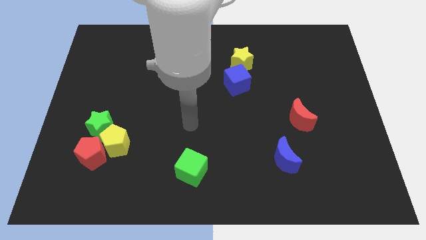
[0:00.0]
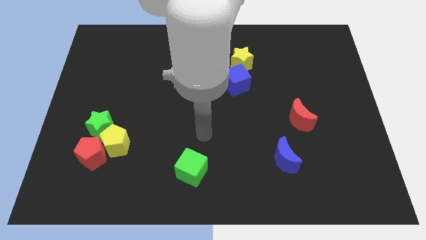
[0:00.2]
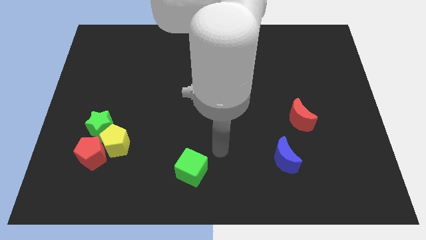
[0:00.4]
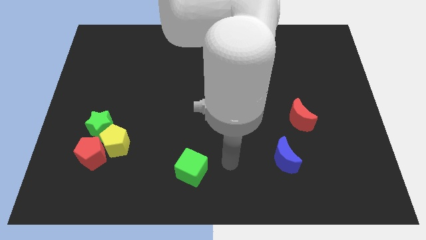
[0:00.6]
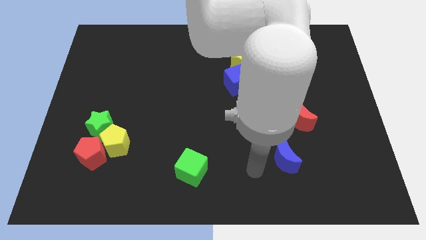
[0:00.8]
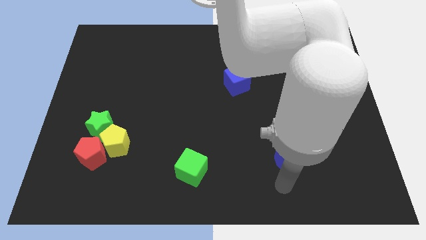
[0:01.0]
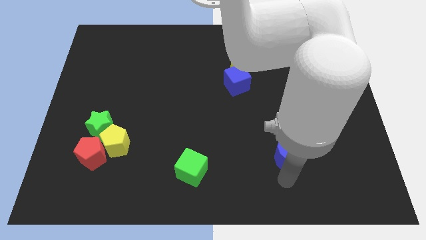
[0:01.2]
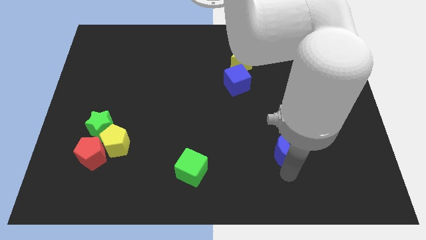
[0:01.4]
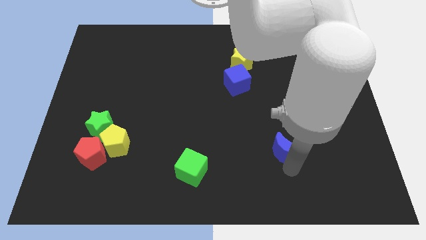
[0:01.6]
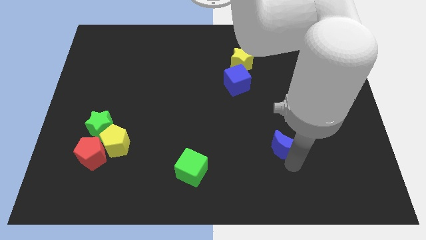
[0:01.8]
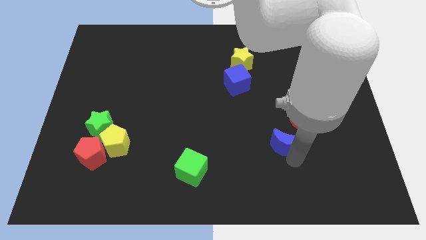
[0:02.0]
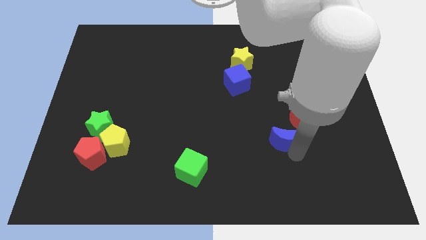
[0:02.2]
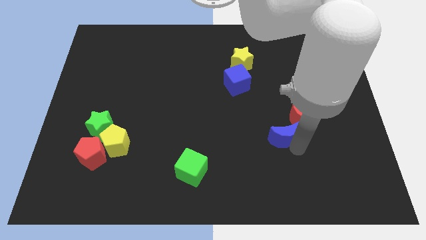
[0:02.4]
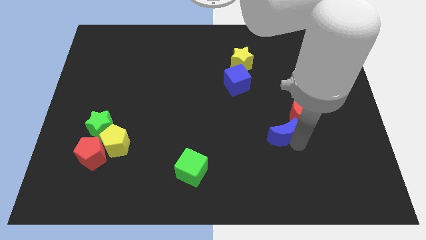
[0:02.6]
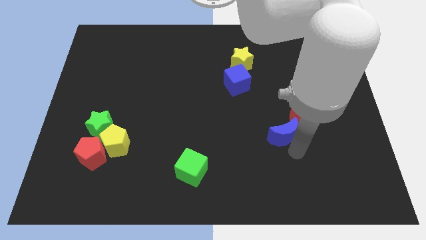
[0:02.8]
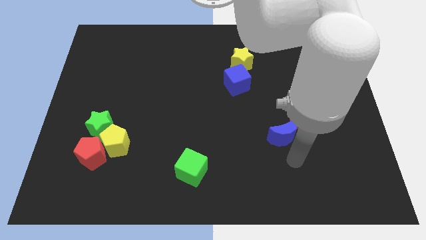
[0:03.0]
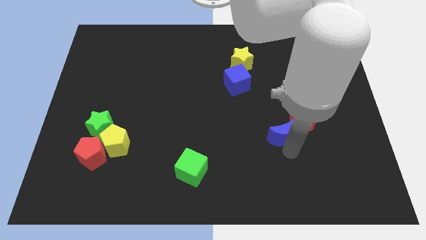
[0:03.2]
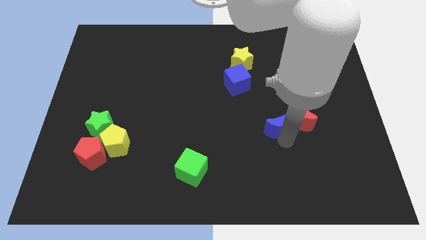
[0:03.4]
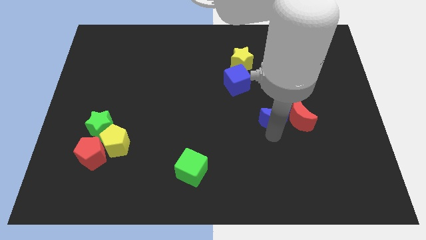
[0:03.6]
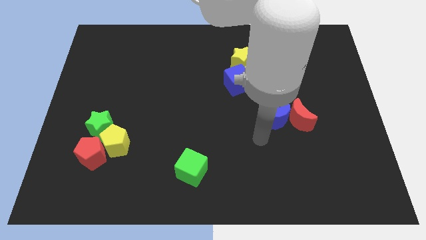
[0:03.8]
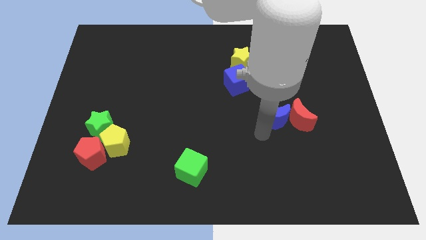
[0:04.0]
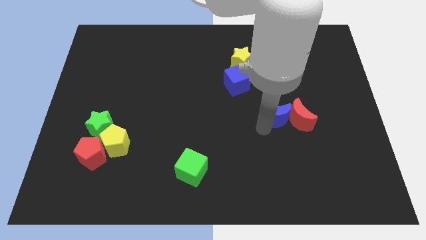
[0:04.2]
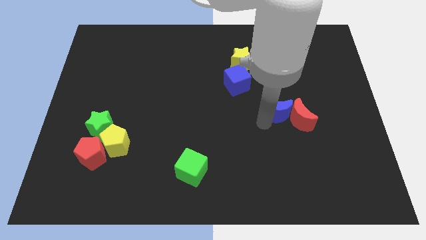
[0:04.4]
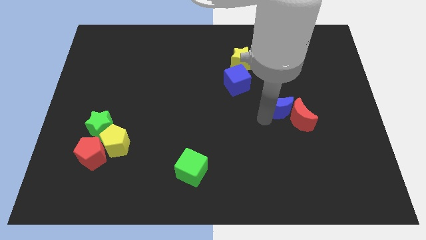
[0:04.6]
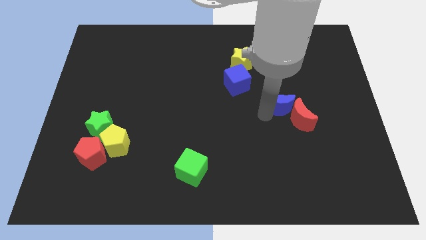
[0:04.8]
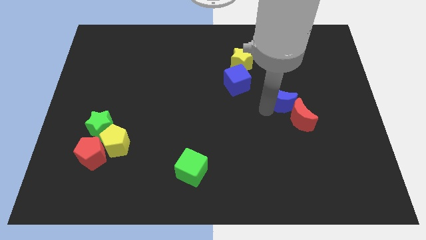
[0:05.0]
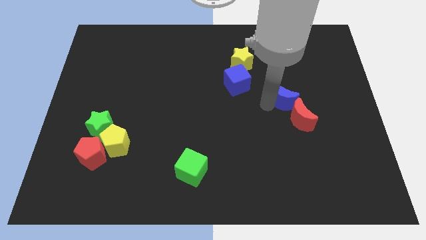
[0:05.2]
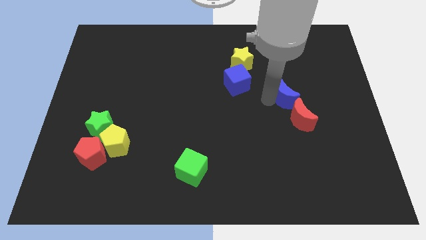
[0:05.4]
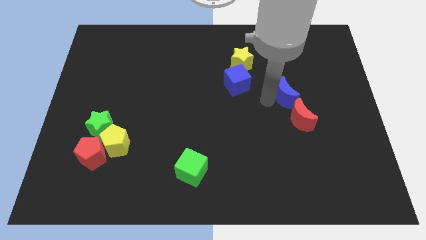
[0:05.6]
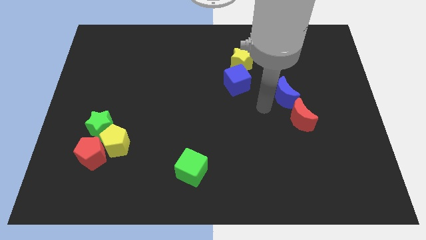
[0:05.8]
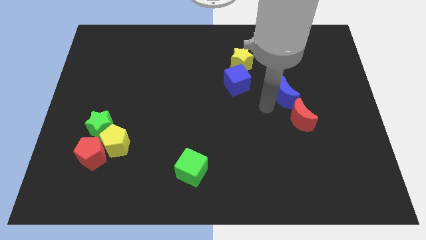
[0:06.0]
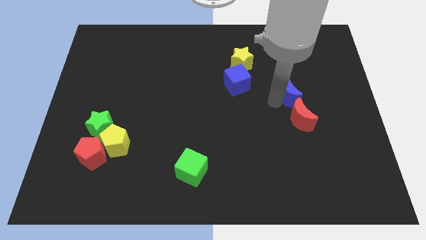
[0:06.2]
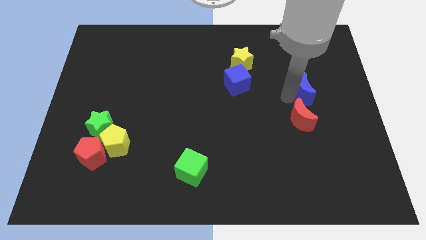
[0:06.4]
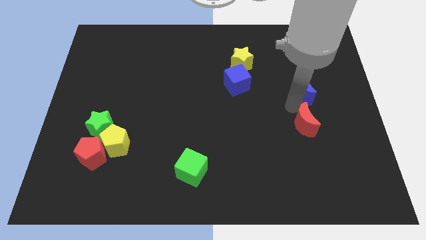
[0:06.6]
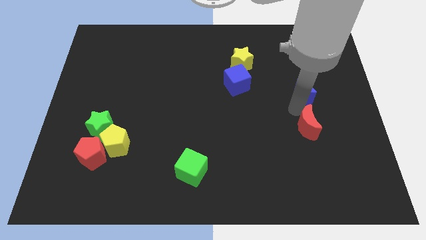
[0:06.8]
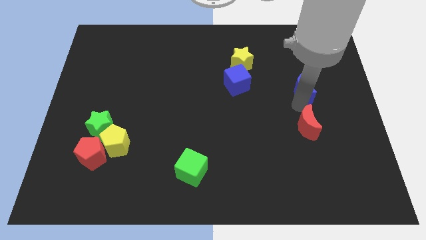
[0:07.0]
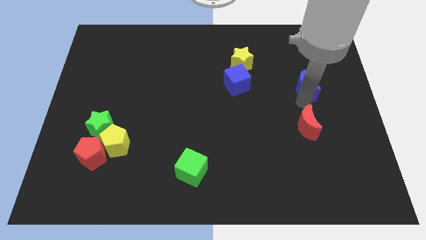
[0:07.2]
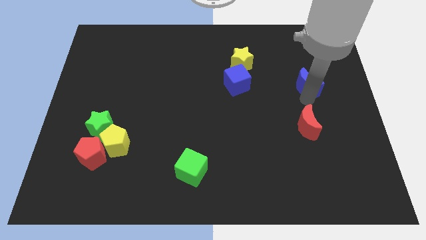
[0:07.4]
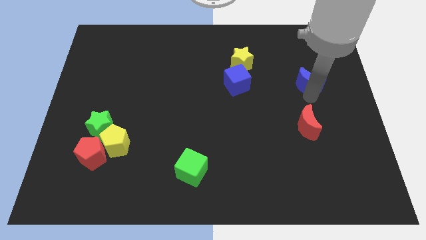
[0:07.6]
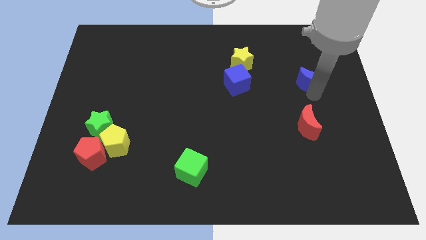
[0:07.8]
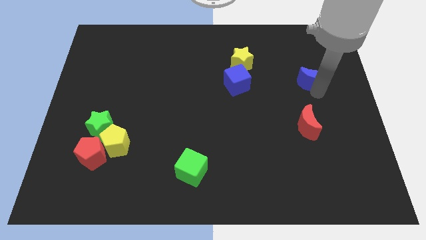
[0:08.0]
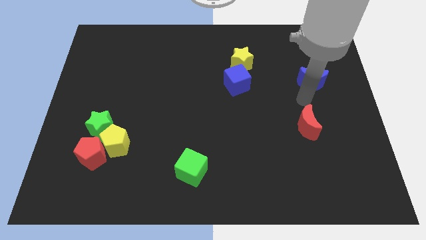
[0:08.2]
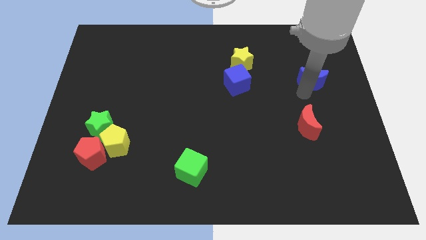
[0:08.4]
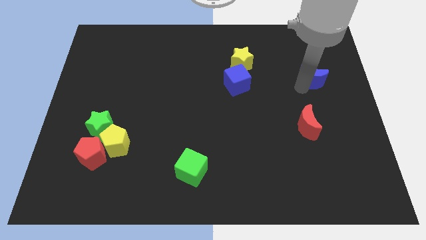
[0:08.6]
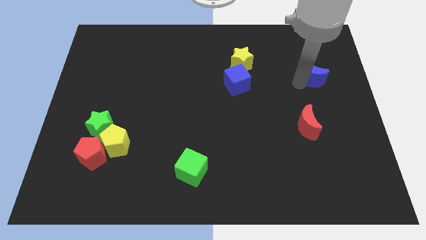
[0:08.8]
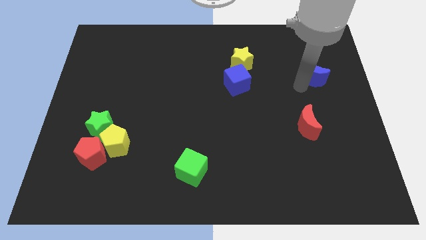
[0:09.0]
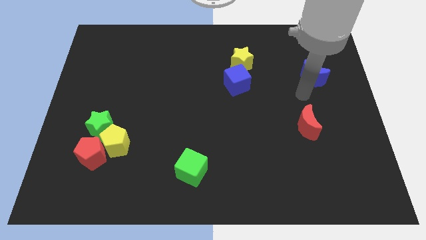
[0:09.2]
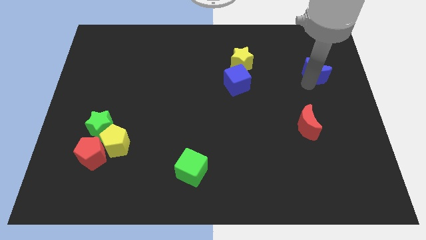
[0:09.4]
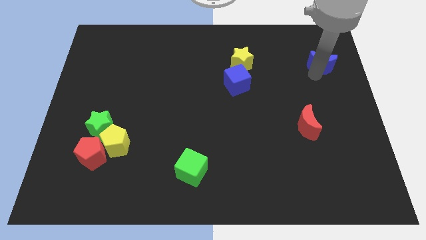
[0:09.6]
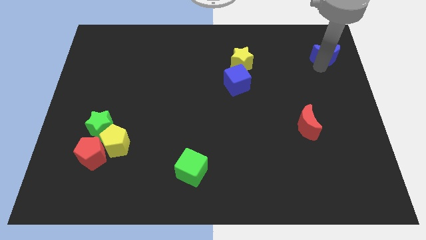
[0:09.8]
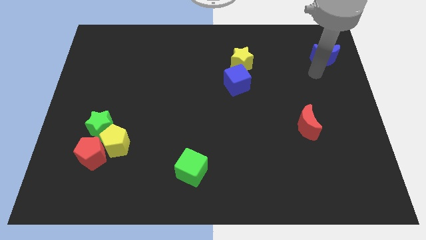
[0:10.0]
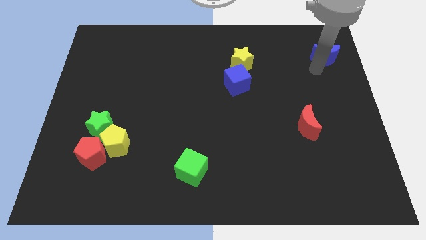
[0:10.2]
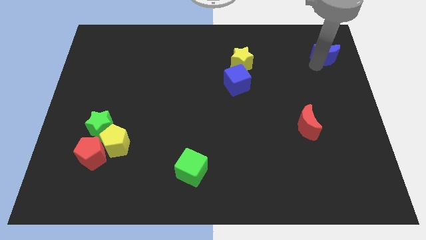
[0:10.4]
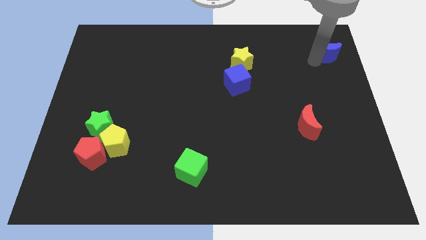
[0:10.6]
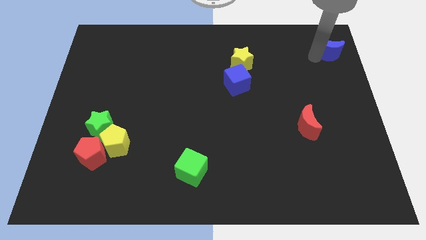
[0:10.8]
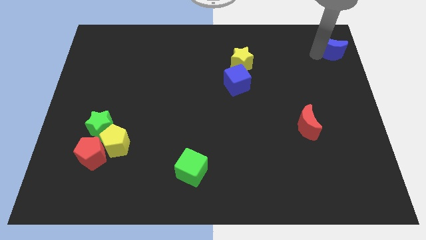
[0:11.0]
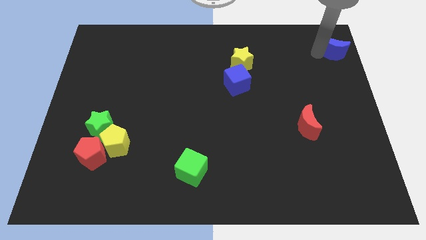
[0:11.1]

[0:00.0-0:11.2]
put the blue moon to the top right corner

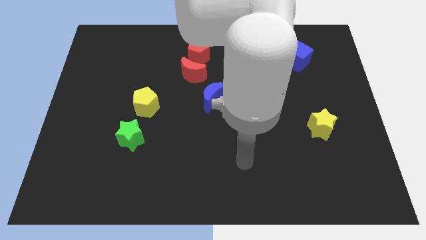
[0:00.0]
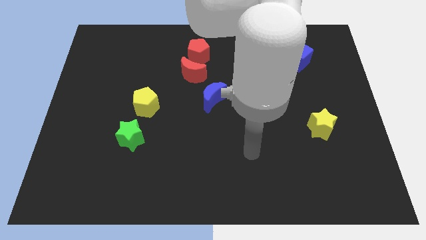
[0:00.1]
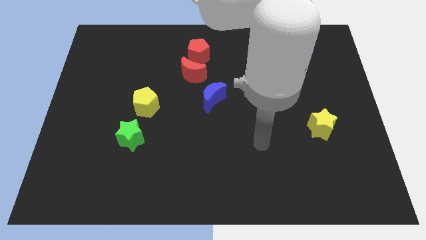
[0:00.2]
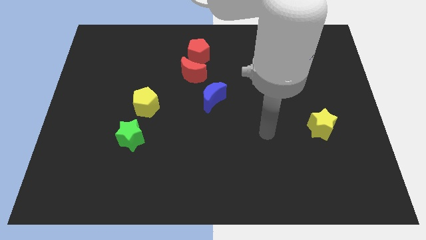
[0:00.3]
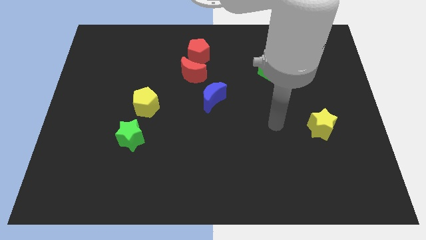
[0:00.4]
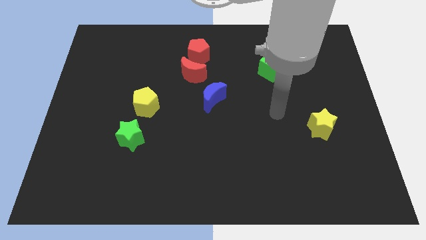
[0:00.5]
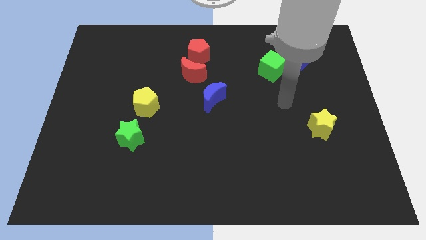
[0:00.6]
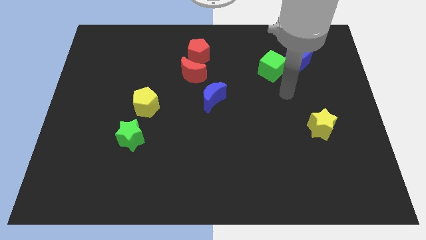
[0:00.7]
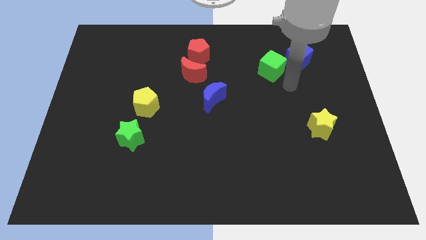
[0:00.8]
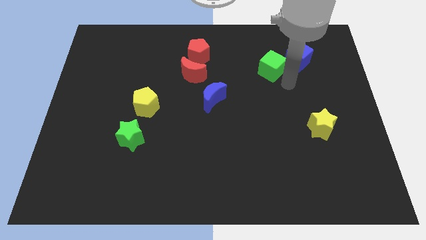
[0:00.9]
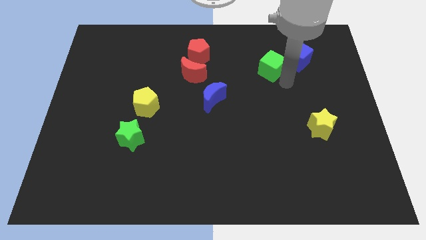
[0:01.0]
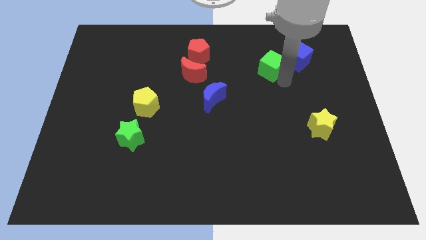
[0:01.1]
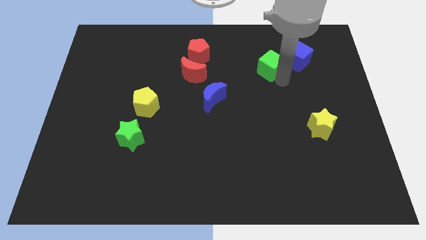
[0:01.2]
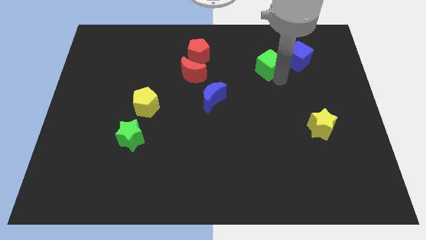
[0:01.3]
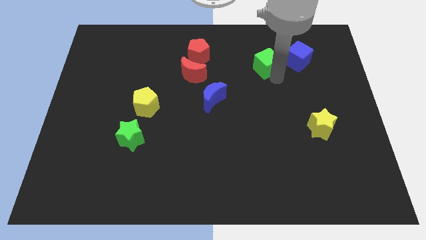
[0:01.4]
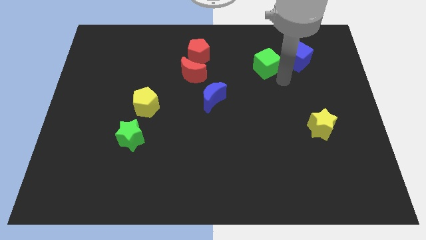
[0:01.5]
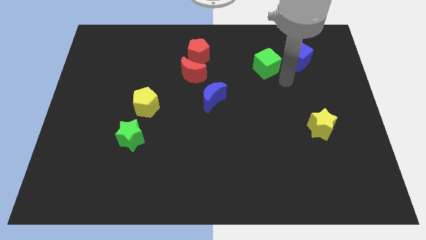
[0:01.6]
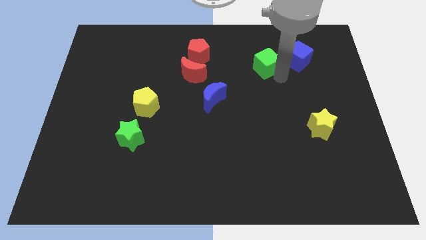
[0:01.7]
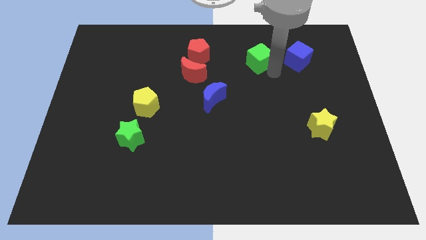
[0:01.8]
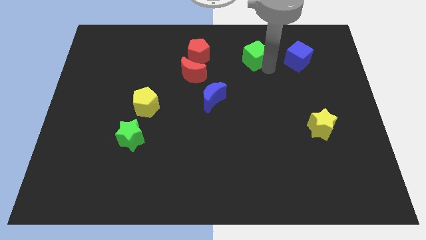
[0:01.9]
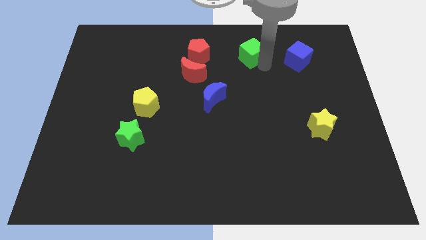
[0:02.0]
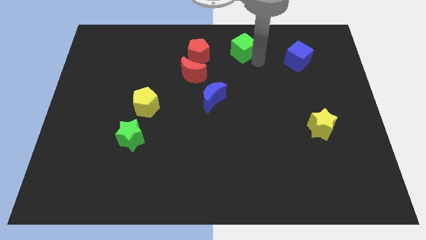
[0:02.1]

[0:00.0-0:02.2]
slide the green cube to the top side
